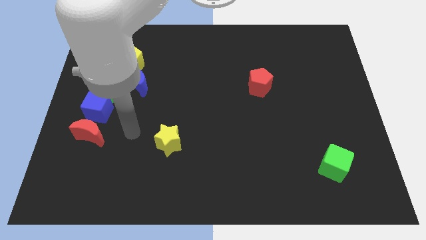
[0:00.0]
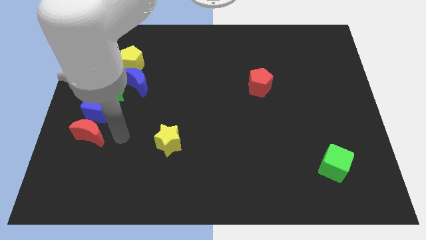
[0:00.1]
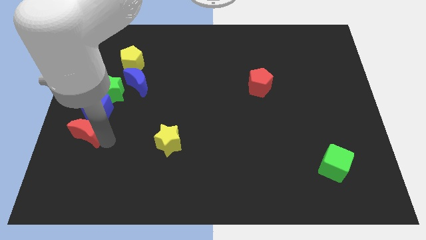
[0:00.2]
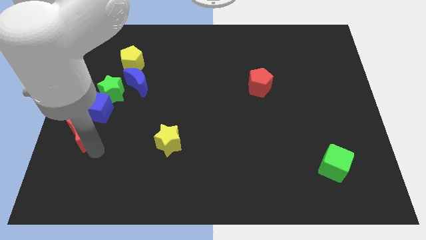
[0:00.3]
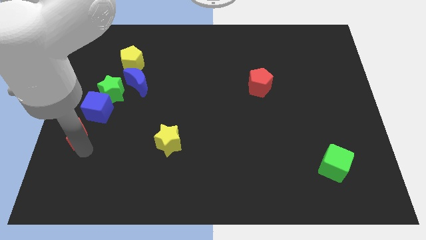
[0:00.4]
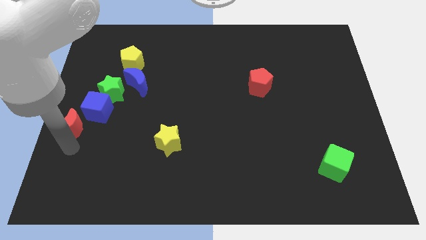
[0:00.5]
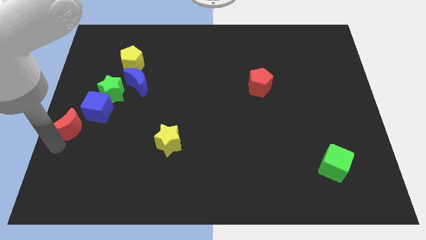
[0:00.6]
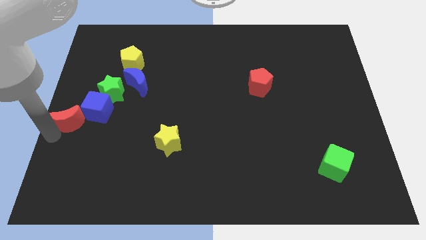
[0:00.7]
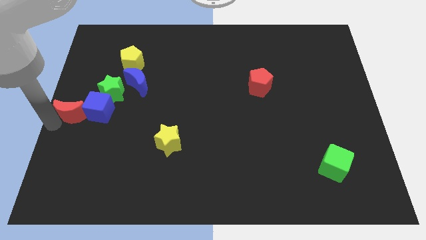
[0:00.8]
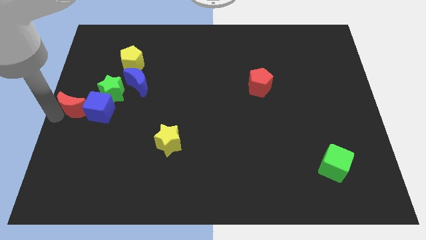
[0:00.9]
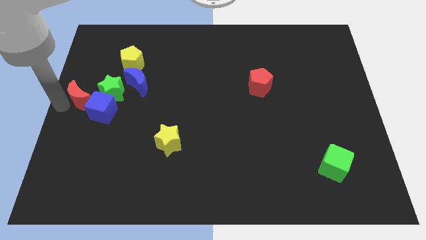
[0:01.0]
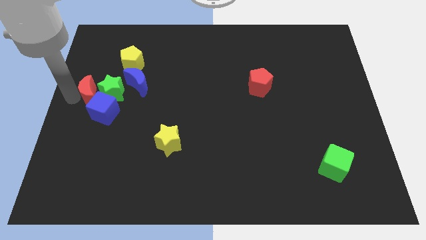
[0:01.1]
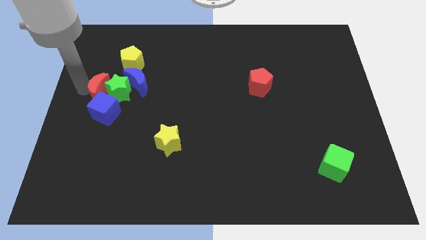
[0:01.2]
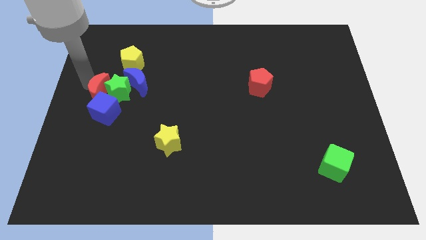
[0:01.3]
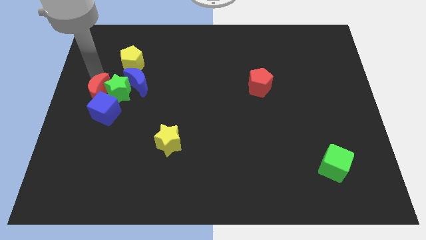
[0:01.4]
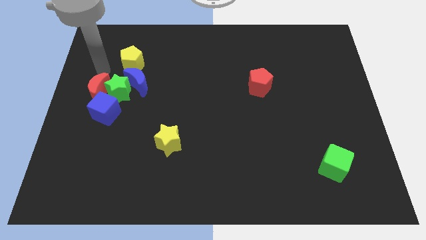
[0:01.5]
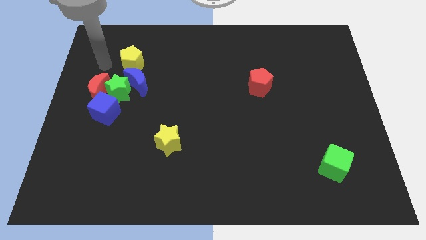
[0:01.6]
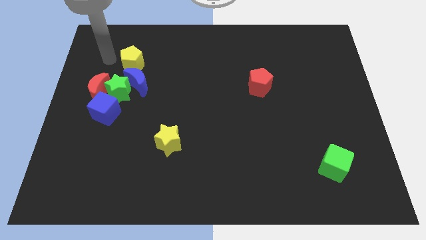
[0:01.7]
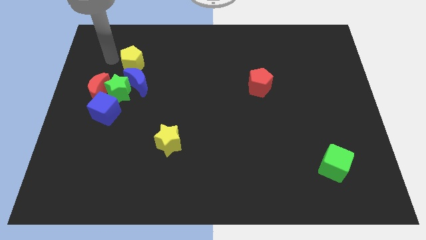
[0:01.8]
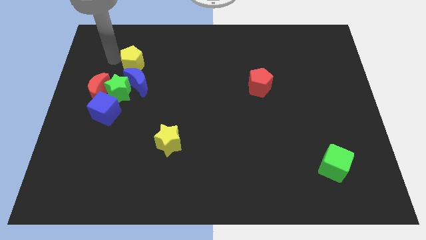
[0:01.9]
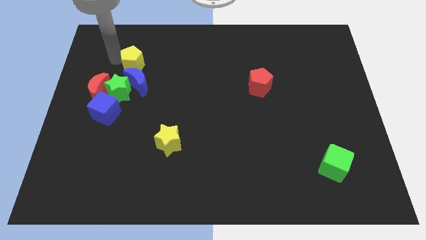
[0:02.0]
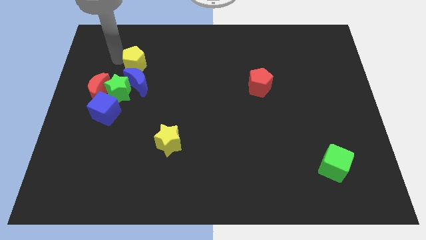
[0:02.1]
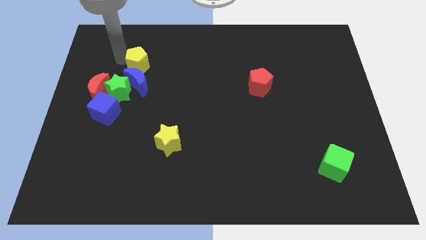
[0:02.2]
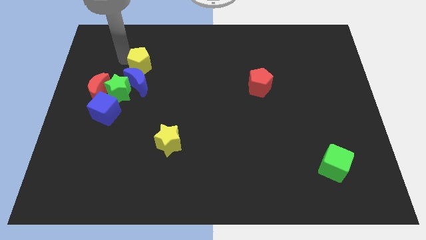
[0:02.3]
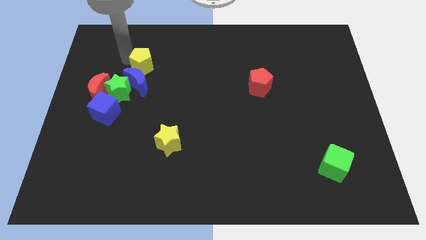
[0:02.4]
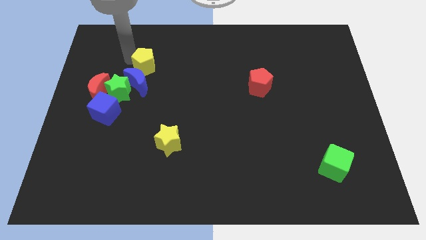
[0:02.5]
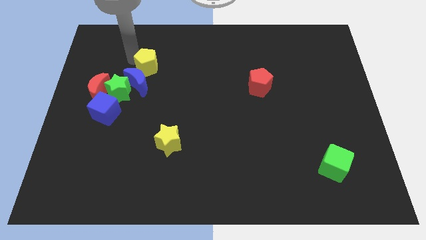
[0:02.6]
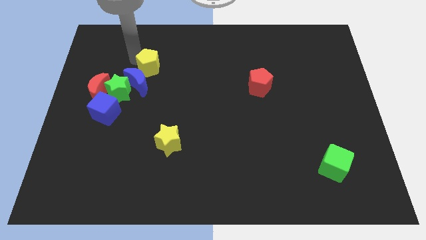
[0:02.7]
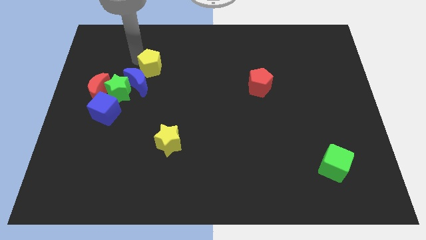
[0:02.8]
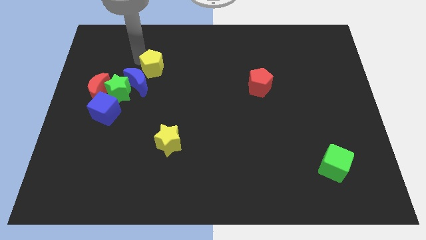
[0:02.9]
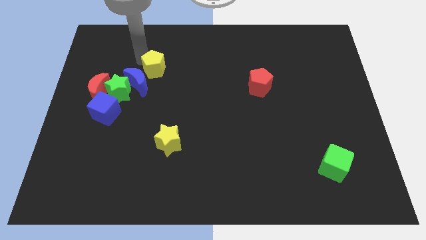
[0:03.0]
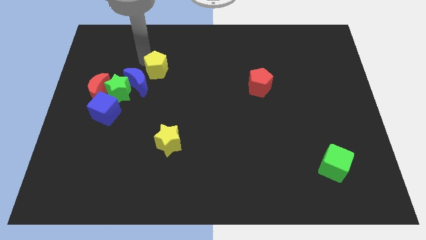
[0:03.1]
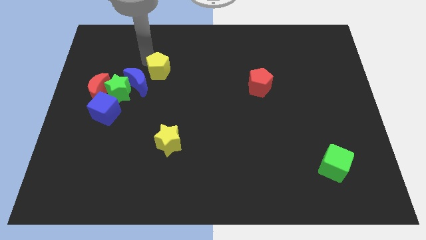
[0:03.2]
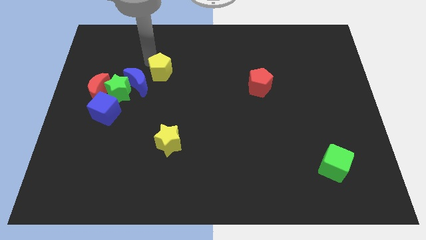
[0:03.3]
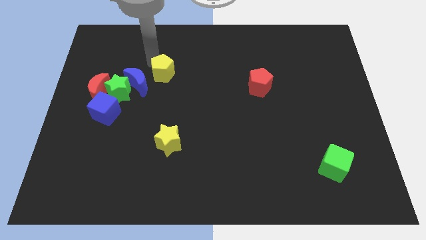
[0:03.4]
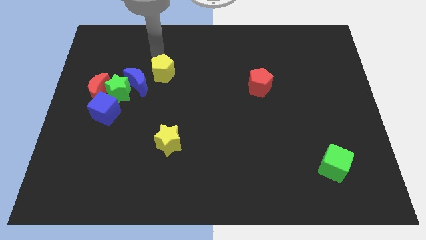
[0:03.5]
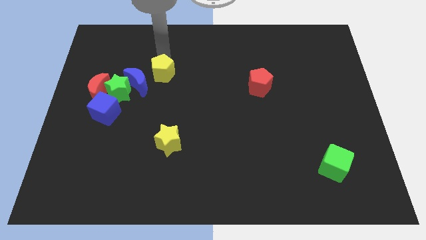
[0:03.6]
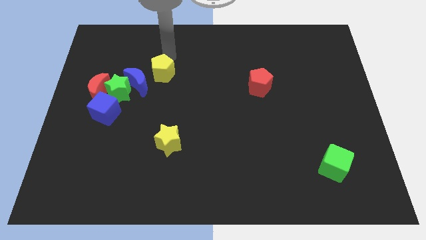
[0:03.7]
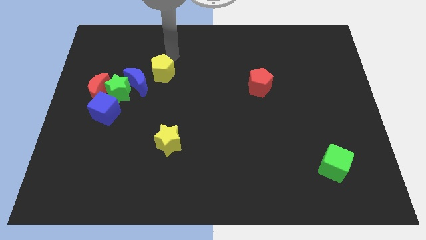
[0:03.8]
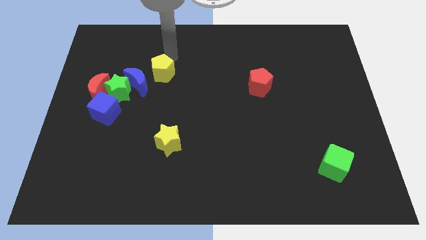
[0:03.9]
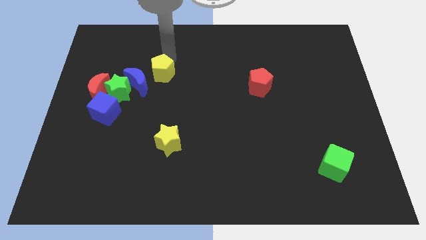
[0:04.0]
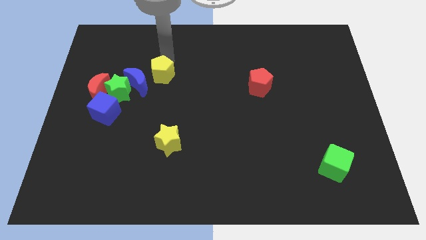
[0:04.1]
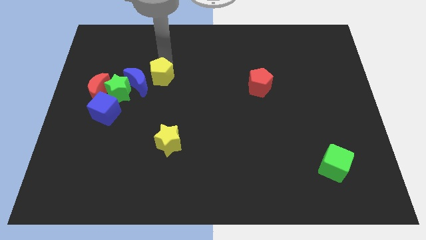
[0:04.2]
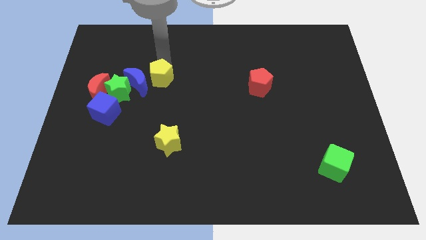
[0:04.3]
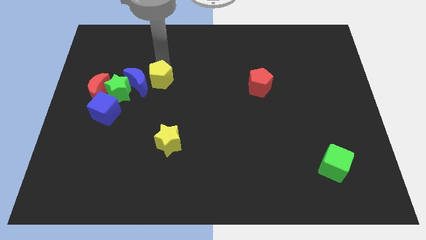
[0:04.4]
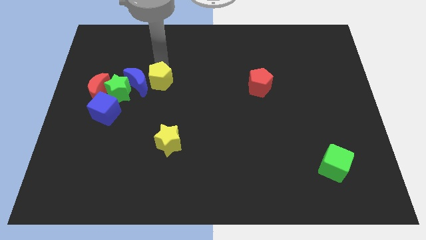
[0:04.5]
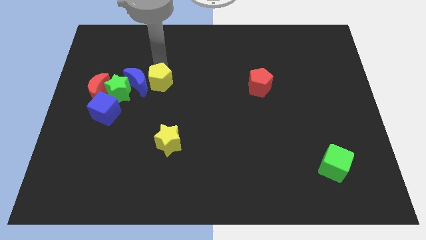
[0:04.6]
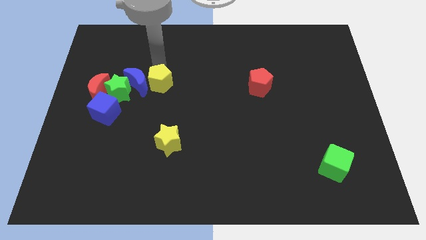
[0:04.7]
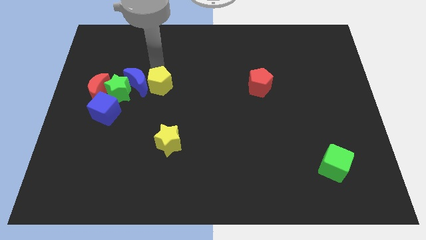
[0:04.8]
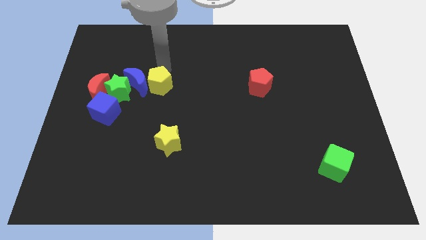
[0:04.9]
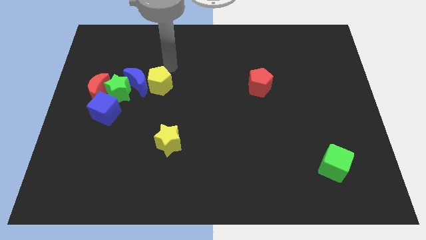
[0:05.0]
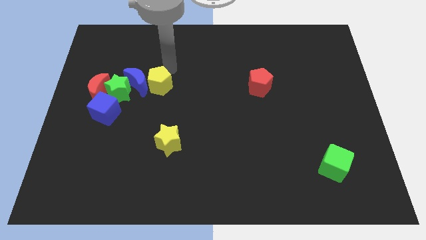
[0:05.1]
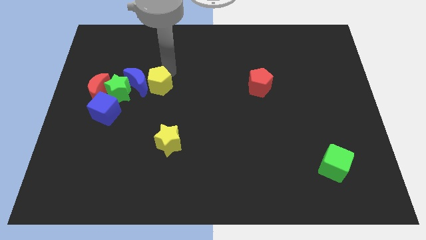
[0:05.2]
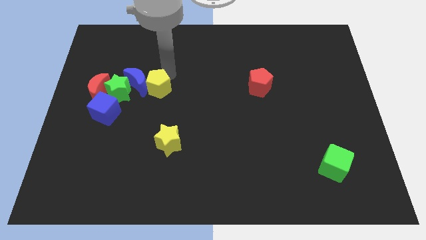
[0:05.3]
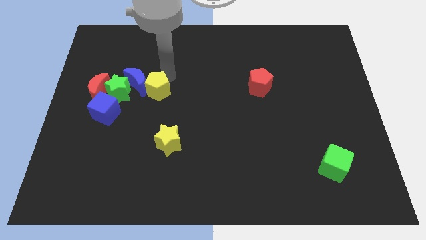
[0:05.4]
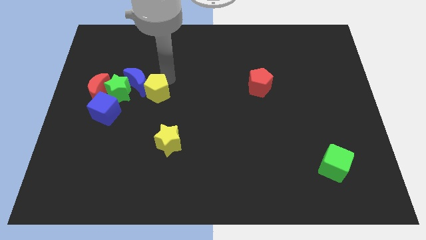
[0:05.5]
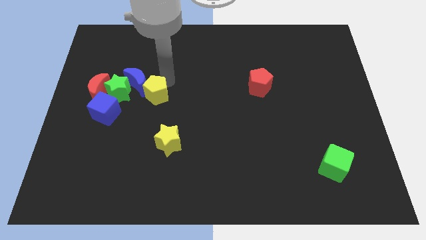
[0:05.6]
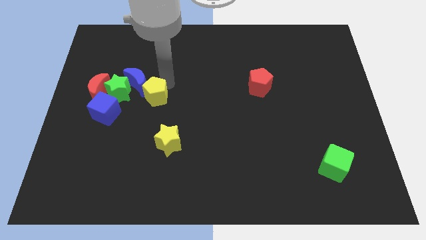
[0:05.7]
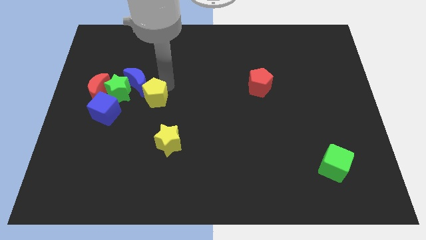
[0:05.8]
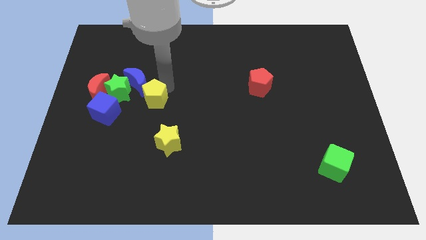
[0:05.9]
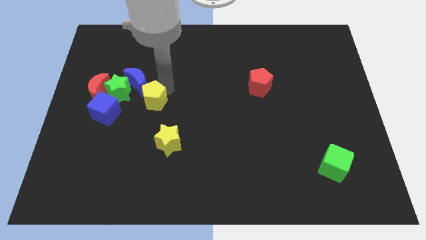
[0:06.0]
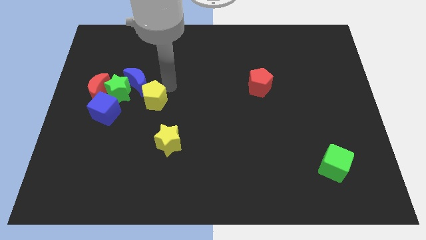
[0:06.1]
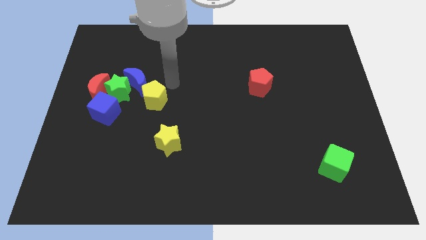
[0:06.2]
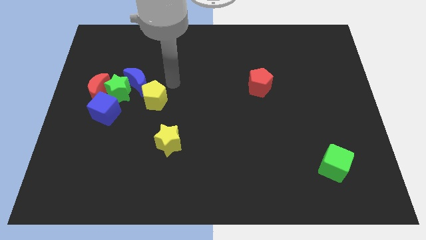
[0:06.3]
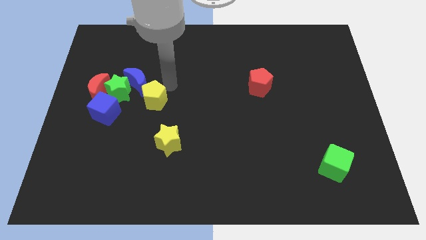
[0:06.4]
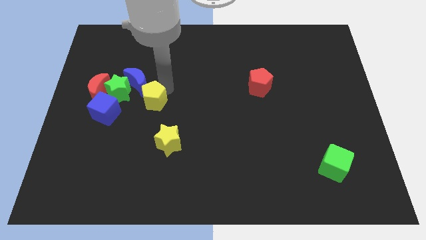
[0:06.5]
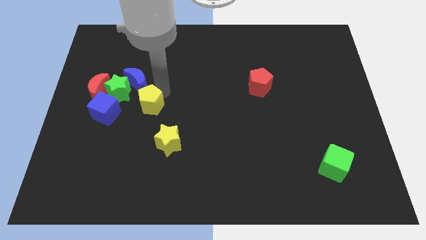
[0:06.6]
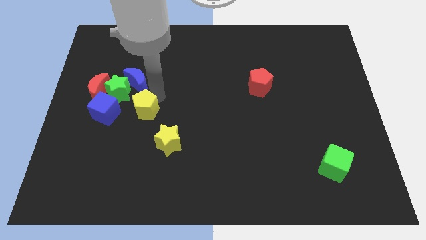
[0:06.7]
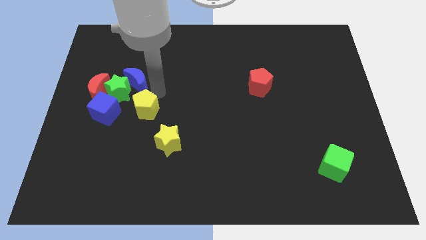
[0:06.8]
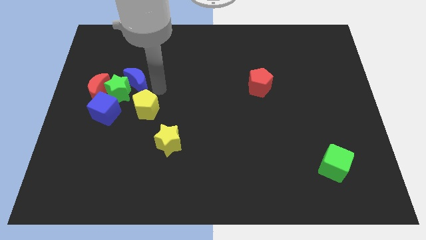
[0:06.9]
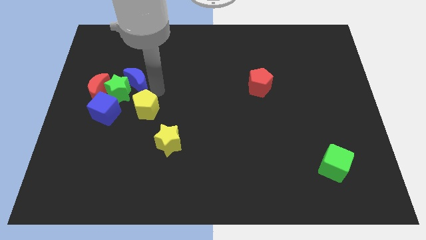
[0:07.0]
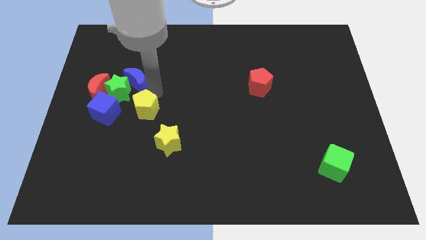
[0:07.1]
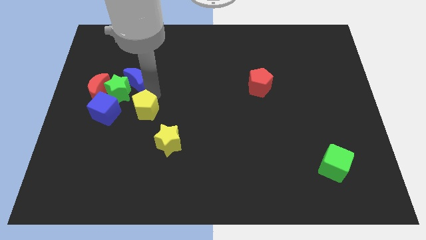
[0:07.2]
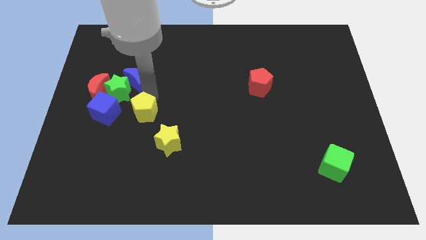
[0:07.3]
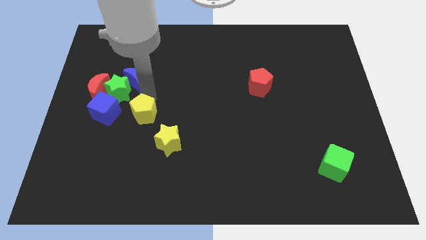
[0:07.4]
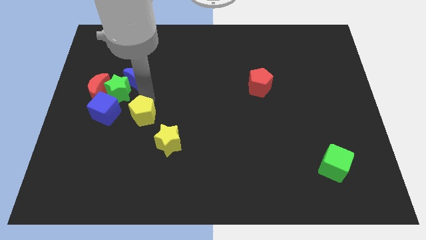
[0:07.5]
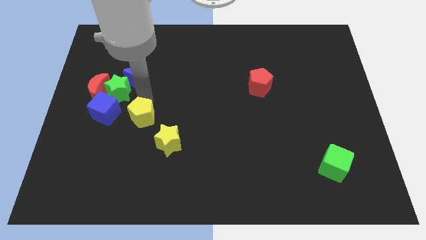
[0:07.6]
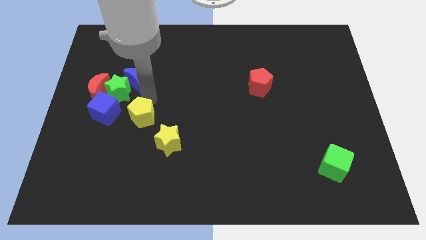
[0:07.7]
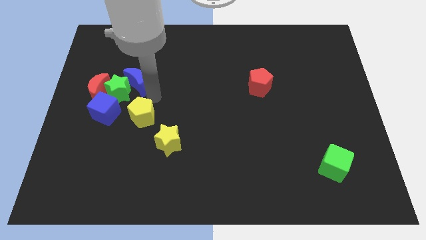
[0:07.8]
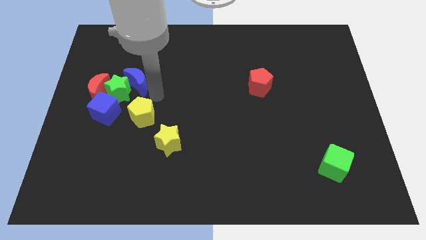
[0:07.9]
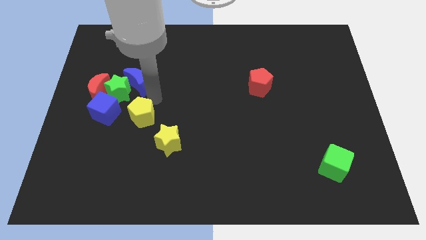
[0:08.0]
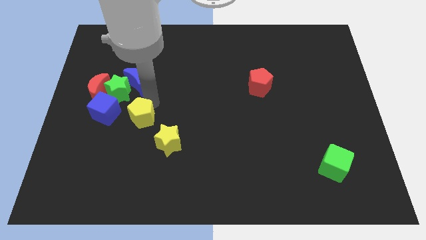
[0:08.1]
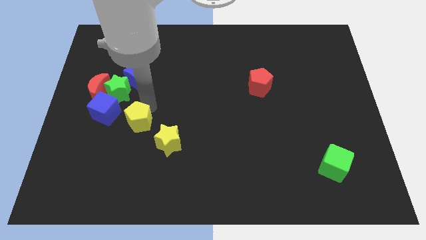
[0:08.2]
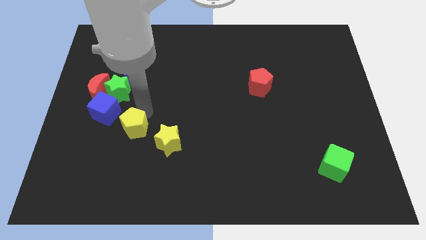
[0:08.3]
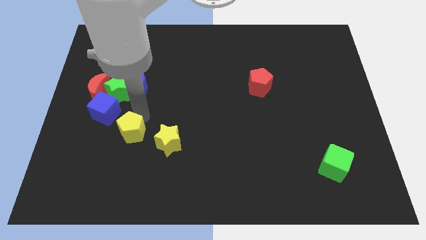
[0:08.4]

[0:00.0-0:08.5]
move the yellow pentagon downwards
